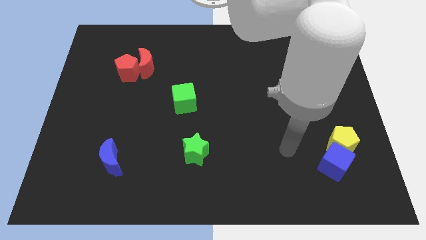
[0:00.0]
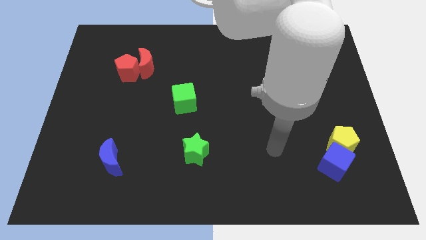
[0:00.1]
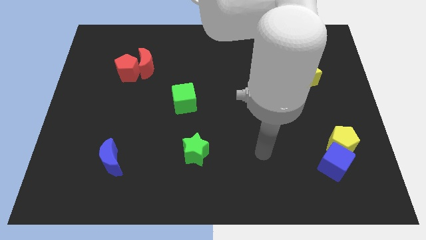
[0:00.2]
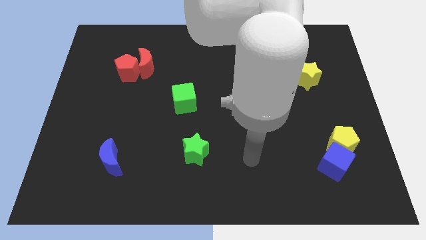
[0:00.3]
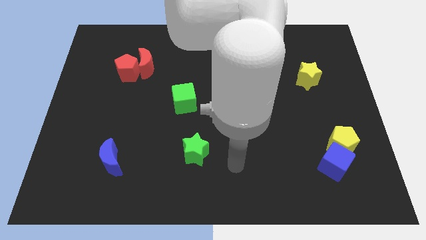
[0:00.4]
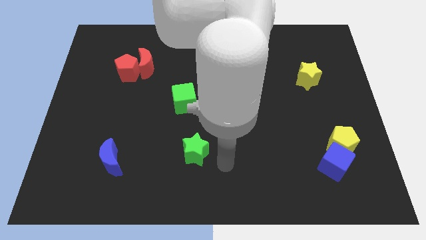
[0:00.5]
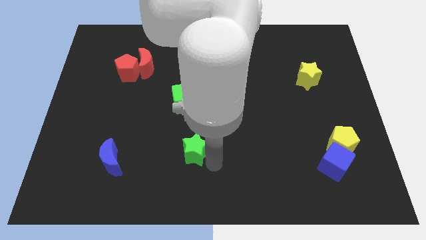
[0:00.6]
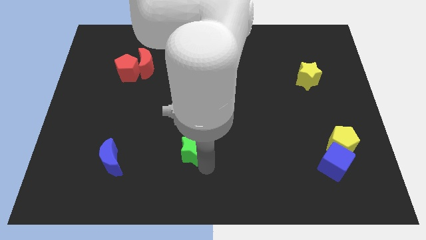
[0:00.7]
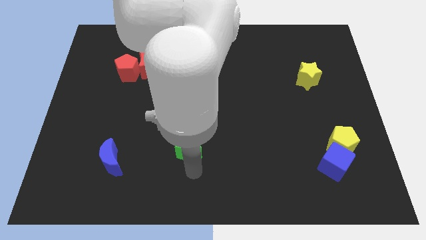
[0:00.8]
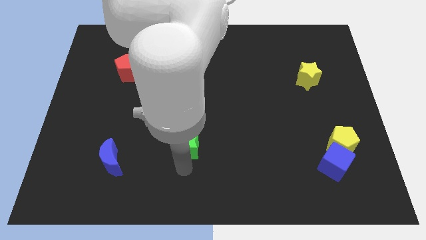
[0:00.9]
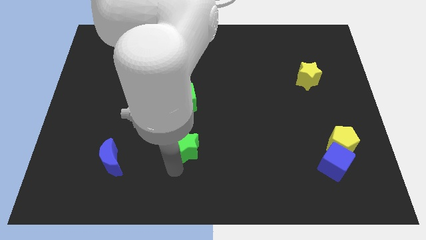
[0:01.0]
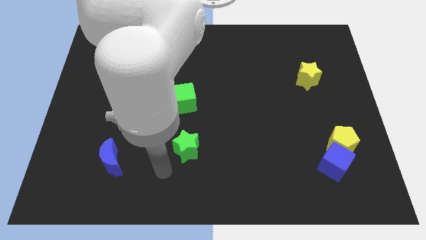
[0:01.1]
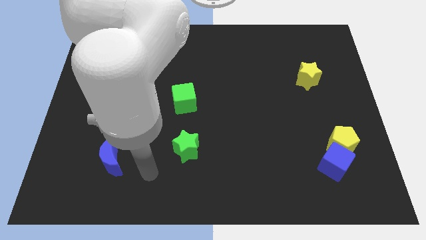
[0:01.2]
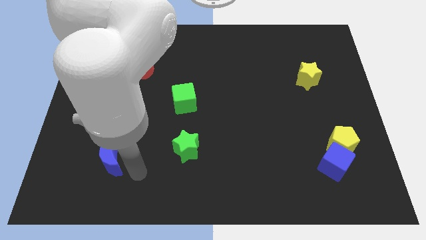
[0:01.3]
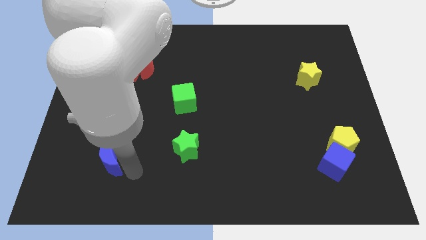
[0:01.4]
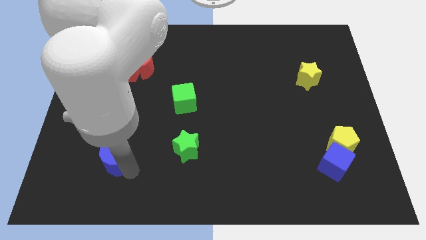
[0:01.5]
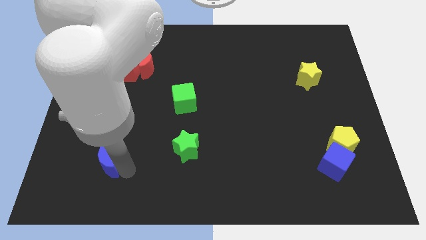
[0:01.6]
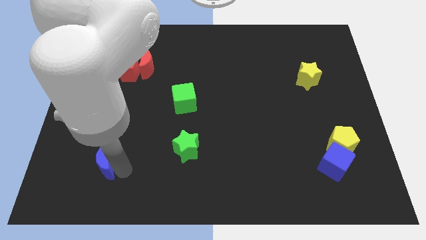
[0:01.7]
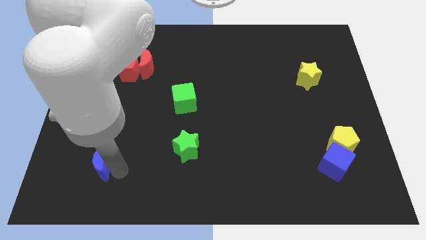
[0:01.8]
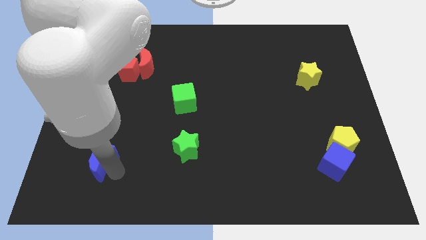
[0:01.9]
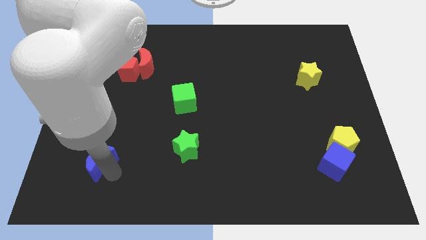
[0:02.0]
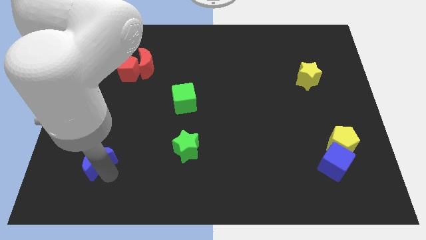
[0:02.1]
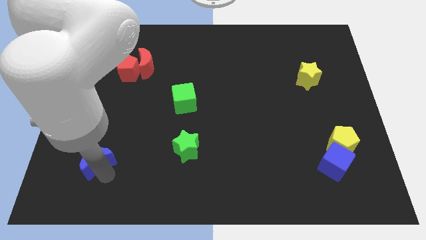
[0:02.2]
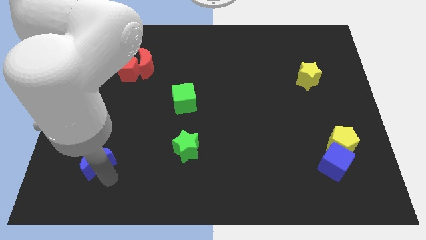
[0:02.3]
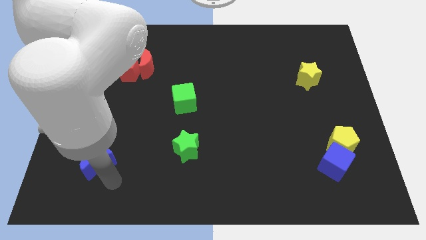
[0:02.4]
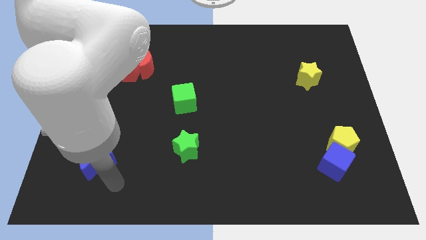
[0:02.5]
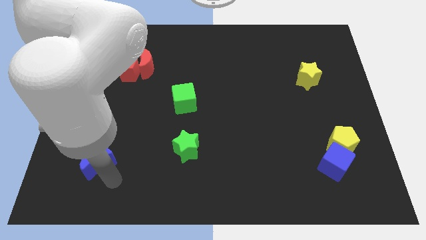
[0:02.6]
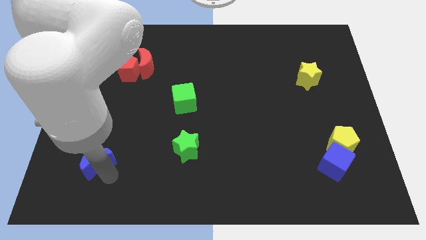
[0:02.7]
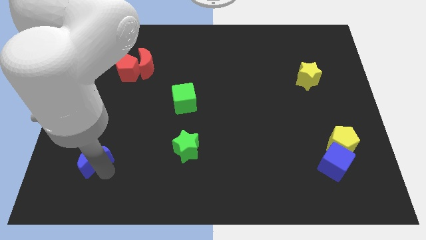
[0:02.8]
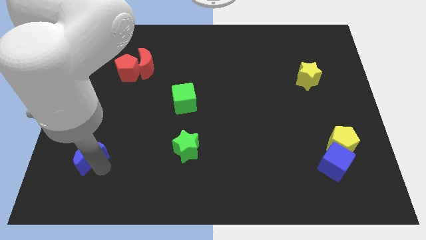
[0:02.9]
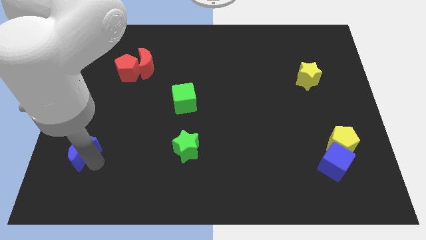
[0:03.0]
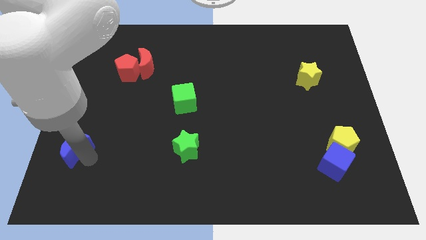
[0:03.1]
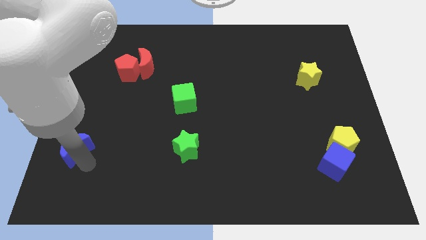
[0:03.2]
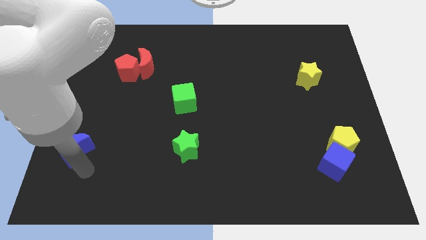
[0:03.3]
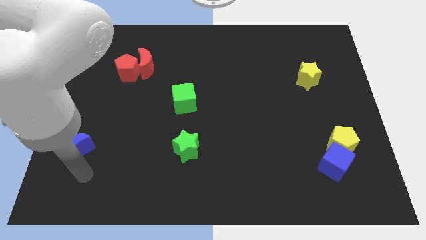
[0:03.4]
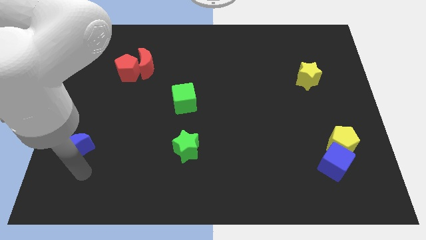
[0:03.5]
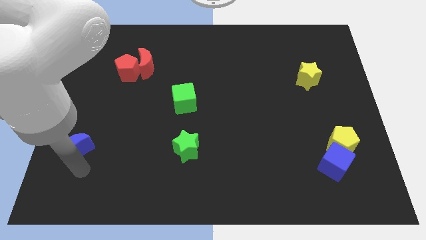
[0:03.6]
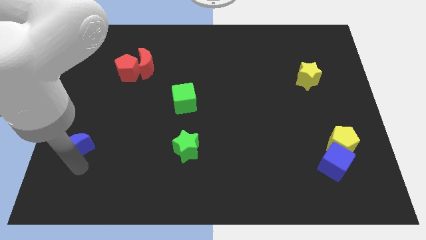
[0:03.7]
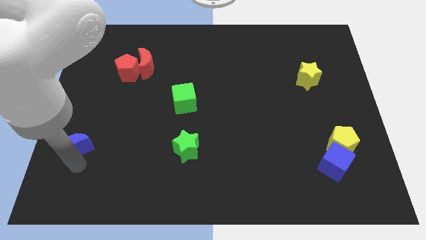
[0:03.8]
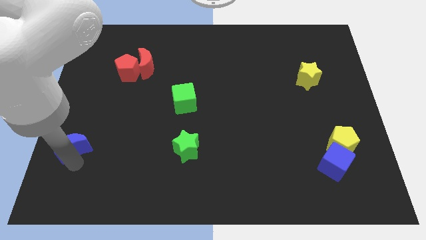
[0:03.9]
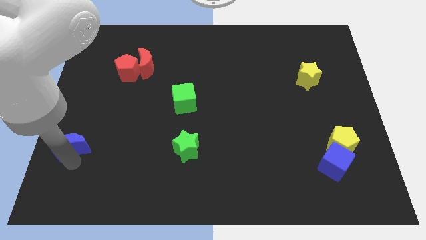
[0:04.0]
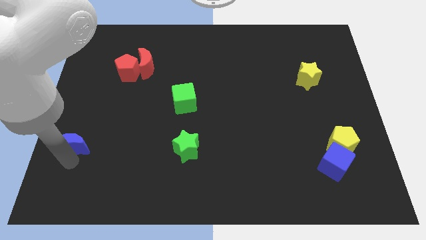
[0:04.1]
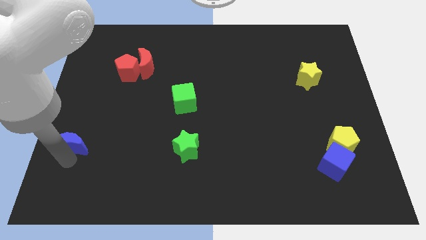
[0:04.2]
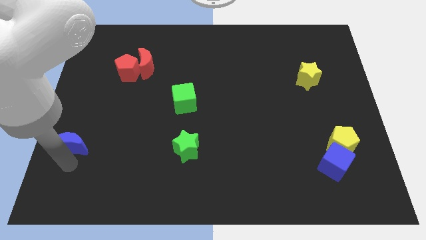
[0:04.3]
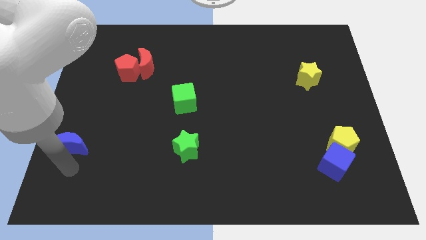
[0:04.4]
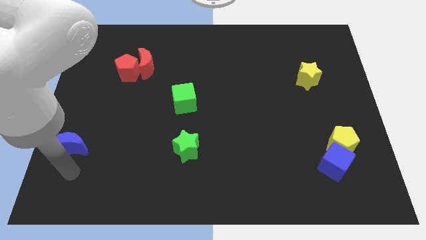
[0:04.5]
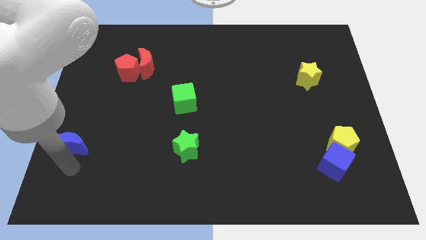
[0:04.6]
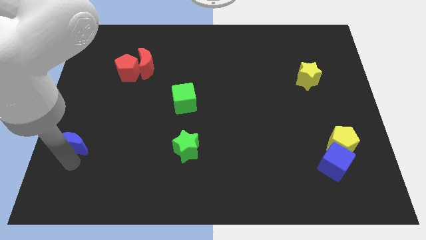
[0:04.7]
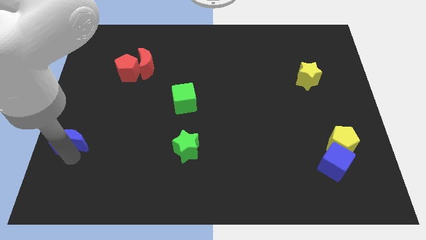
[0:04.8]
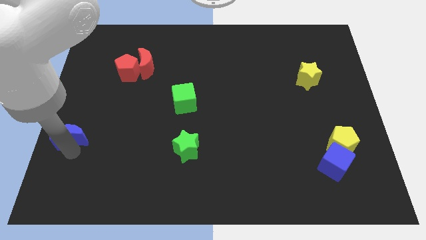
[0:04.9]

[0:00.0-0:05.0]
move the blue moon to the center left

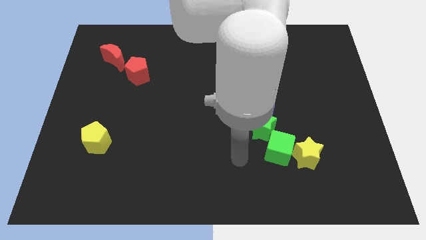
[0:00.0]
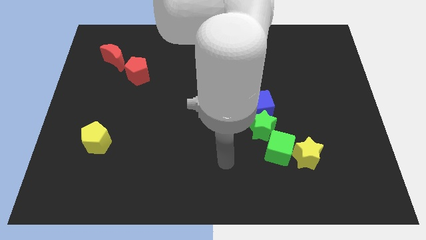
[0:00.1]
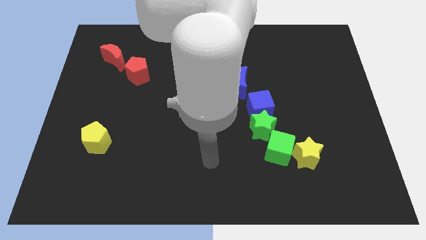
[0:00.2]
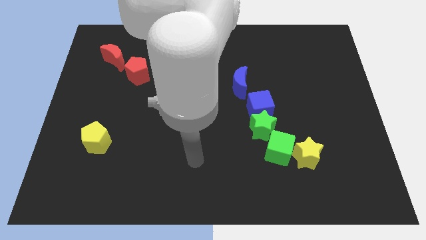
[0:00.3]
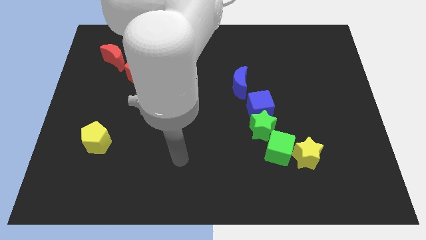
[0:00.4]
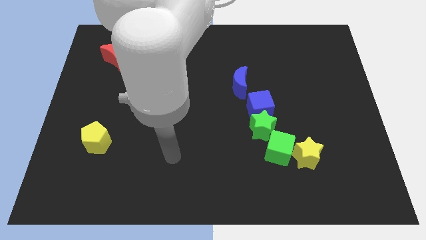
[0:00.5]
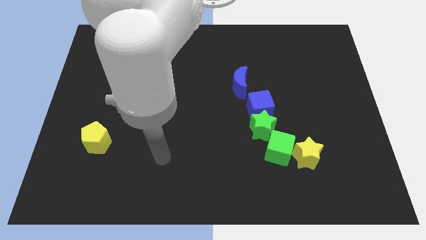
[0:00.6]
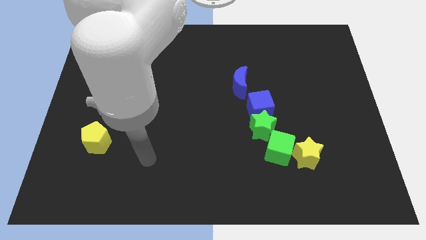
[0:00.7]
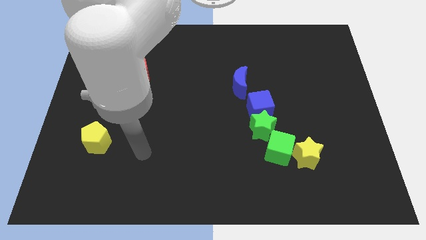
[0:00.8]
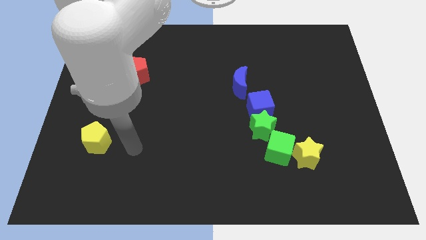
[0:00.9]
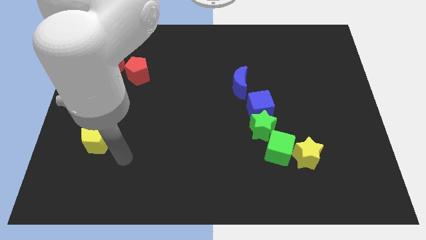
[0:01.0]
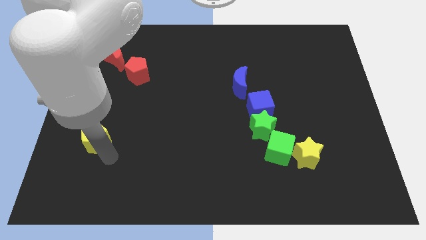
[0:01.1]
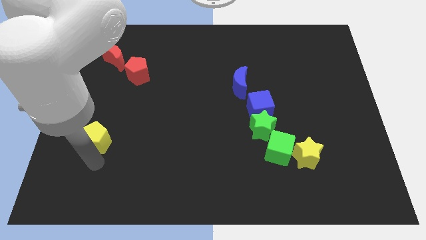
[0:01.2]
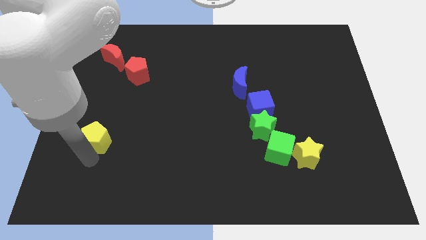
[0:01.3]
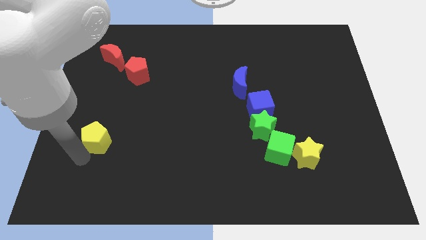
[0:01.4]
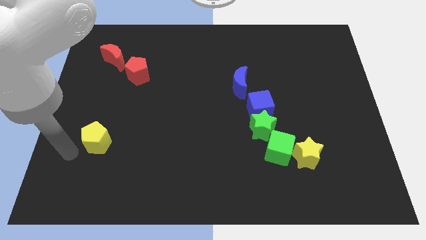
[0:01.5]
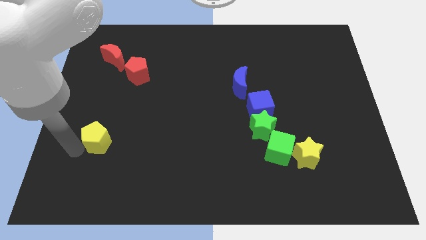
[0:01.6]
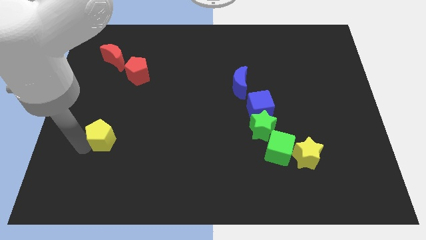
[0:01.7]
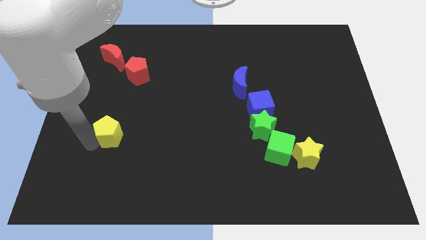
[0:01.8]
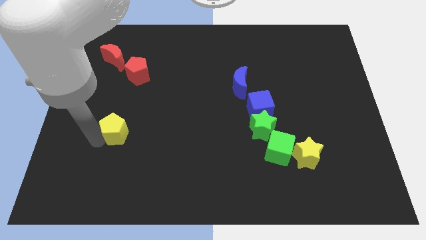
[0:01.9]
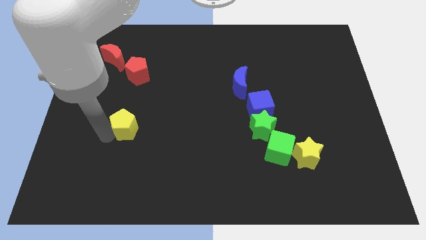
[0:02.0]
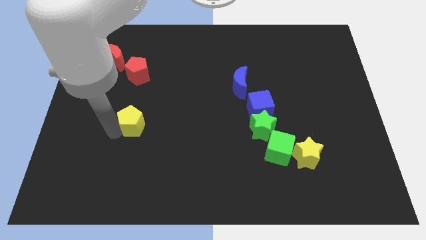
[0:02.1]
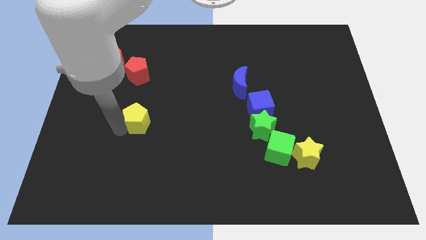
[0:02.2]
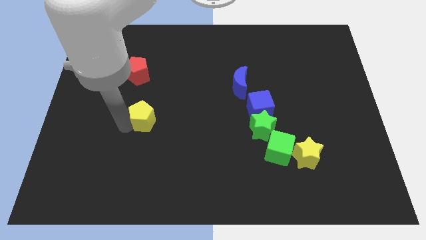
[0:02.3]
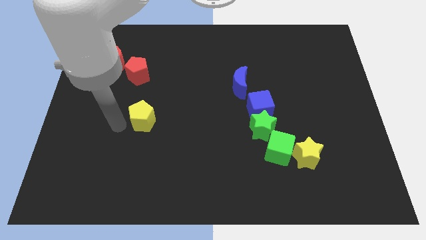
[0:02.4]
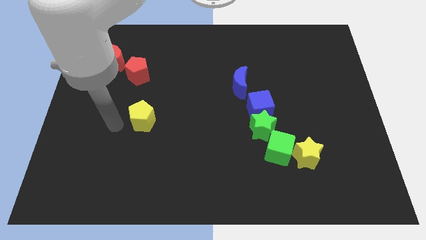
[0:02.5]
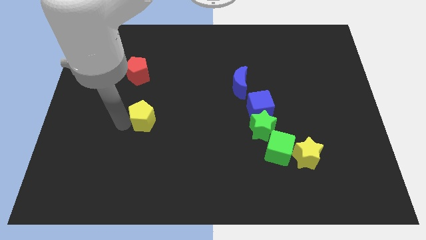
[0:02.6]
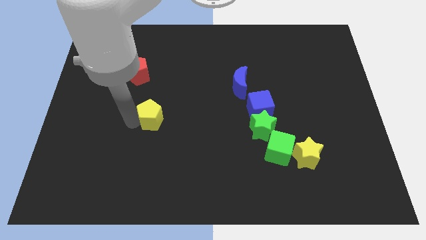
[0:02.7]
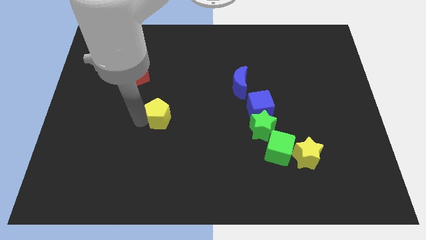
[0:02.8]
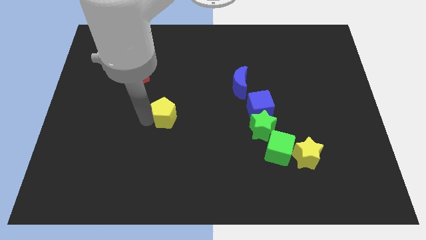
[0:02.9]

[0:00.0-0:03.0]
push the yellow pentagon to the middle of the board
